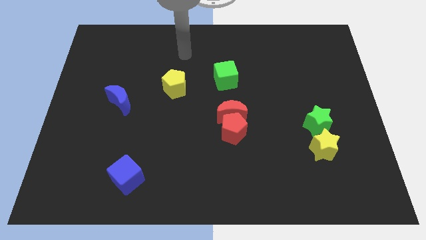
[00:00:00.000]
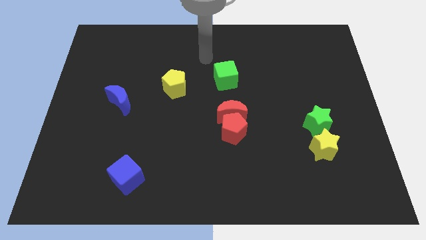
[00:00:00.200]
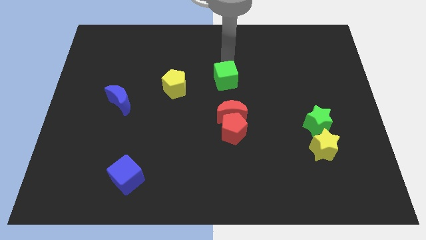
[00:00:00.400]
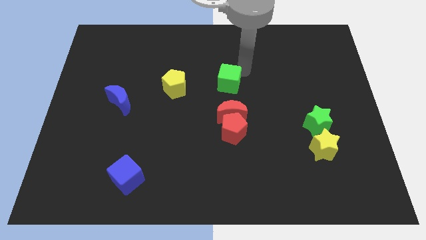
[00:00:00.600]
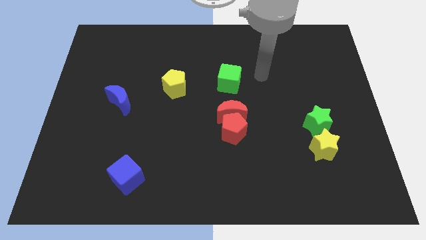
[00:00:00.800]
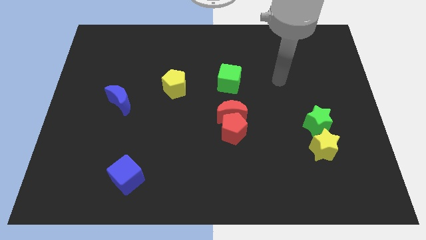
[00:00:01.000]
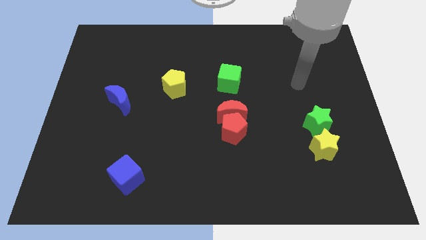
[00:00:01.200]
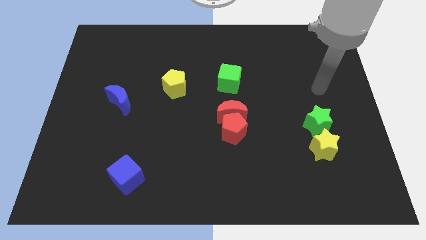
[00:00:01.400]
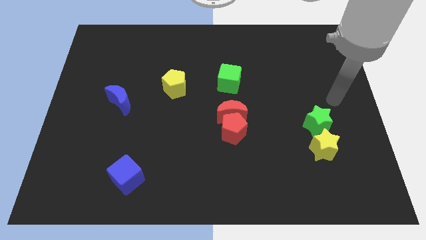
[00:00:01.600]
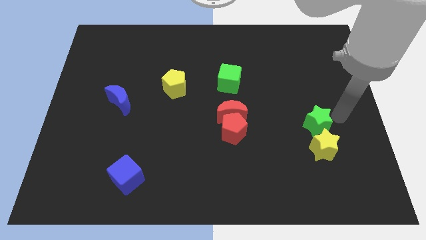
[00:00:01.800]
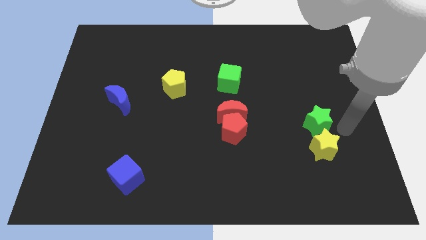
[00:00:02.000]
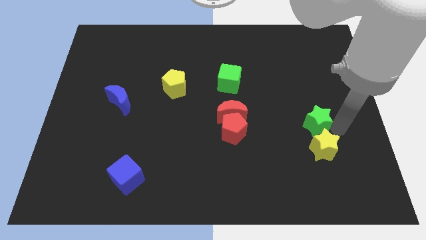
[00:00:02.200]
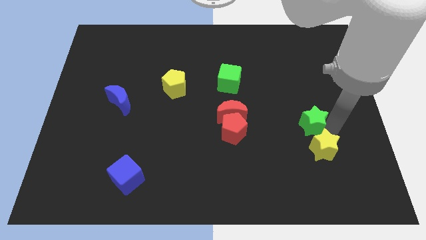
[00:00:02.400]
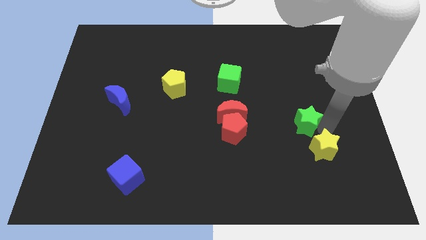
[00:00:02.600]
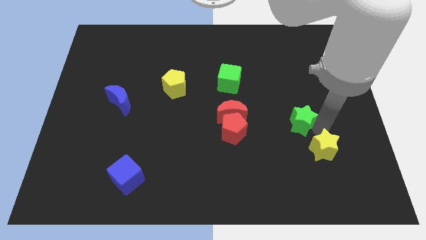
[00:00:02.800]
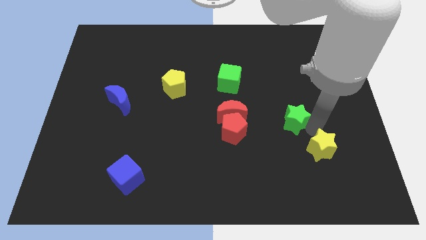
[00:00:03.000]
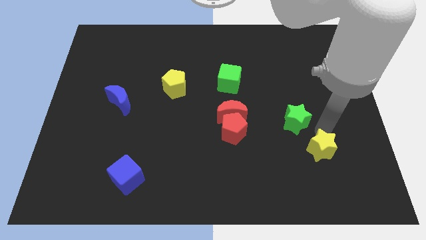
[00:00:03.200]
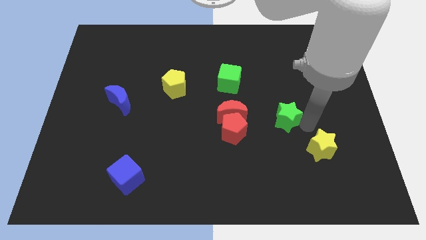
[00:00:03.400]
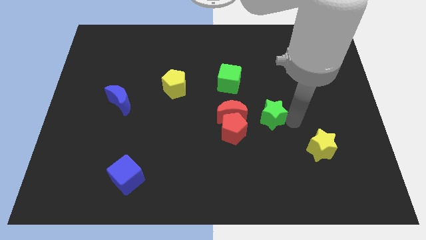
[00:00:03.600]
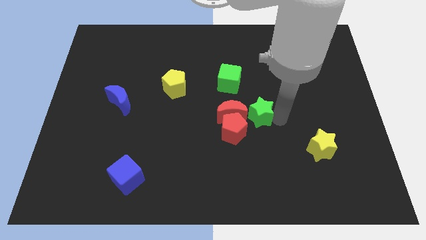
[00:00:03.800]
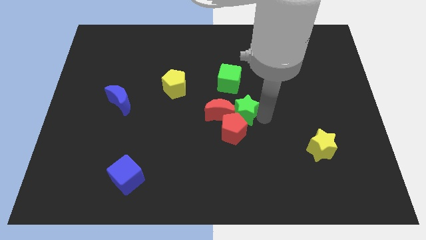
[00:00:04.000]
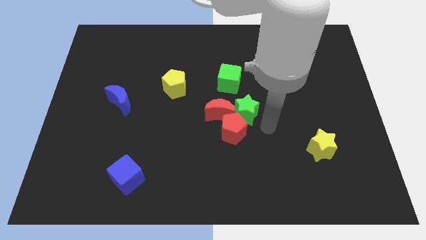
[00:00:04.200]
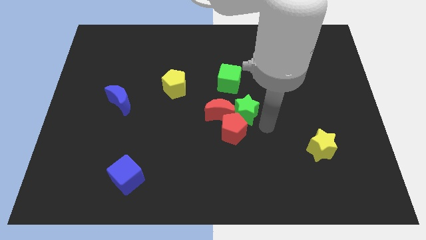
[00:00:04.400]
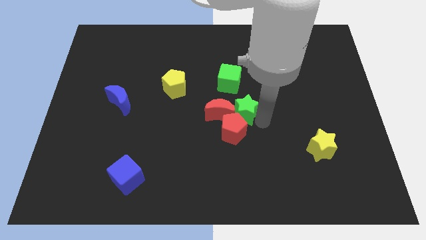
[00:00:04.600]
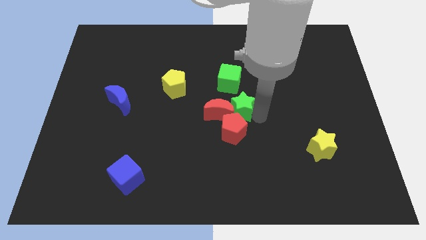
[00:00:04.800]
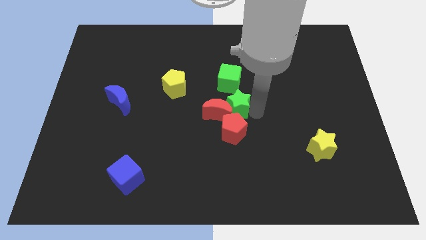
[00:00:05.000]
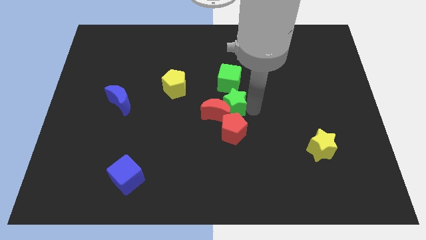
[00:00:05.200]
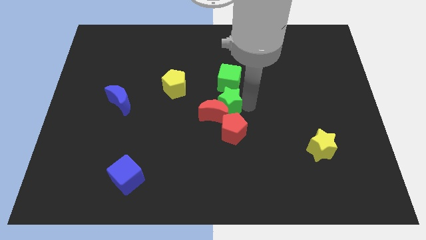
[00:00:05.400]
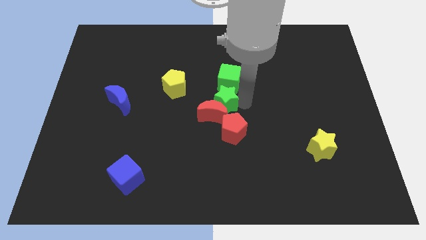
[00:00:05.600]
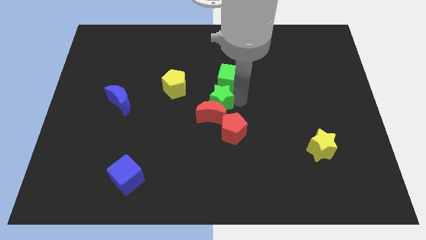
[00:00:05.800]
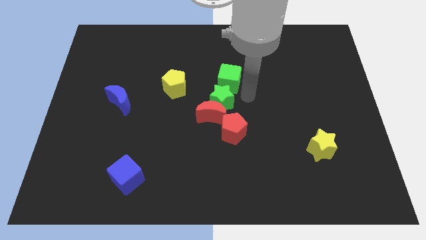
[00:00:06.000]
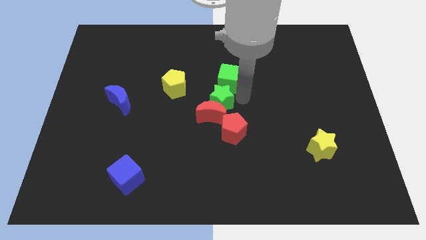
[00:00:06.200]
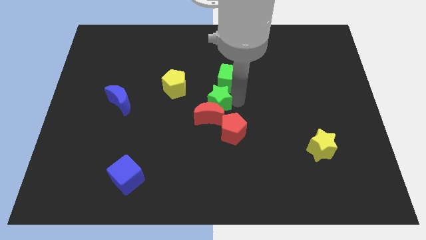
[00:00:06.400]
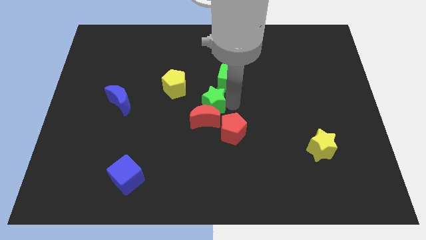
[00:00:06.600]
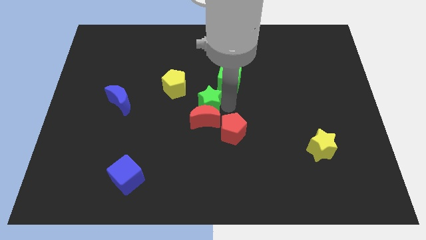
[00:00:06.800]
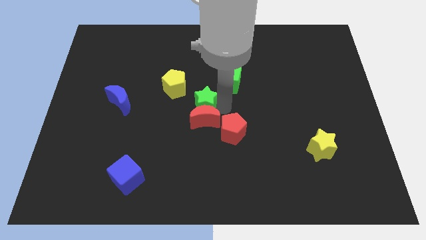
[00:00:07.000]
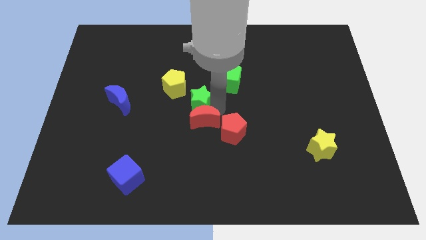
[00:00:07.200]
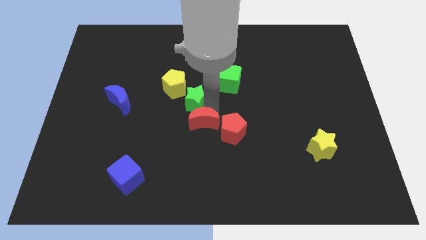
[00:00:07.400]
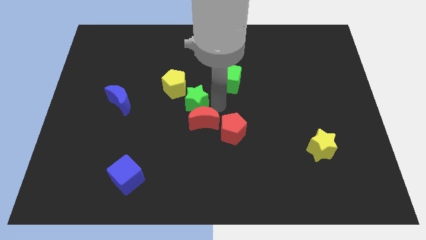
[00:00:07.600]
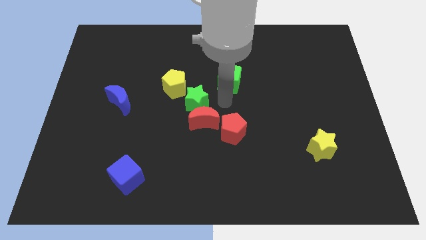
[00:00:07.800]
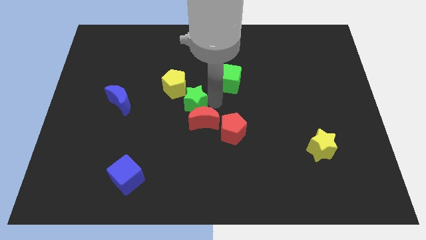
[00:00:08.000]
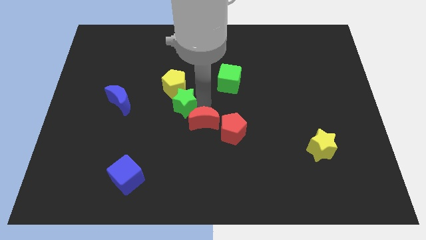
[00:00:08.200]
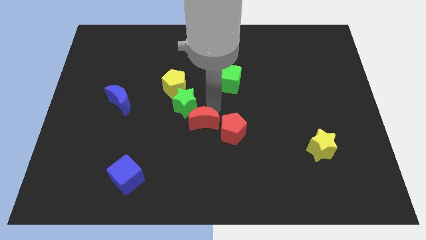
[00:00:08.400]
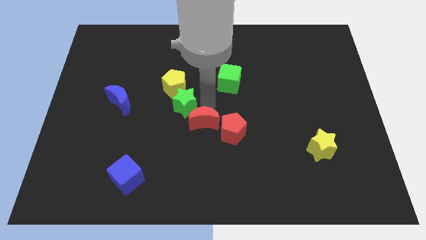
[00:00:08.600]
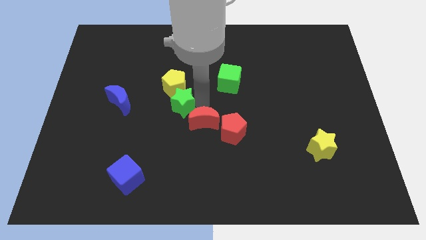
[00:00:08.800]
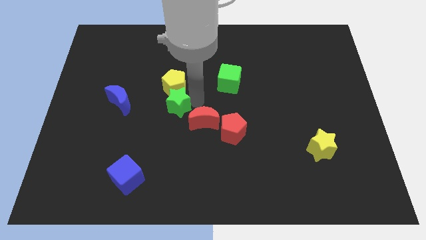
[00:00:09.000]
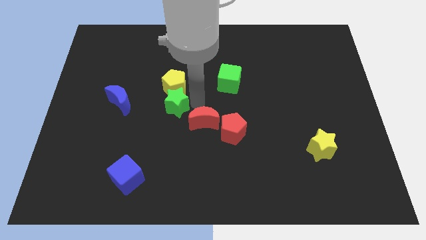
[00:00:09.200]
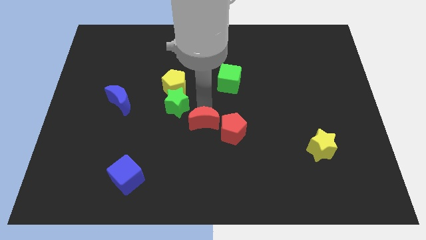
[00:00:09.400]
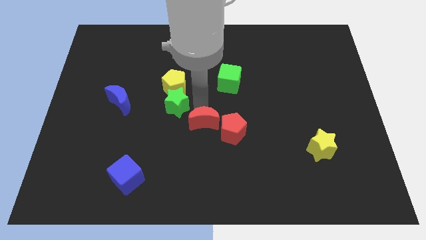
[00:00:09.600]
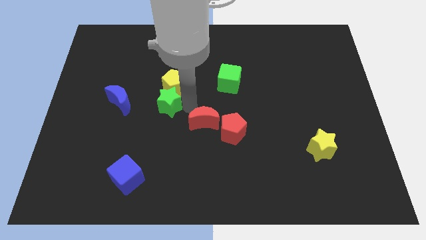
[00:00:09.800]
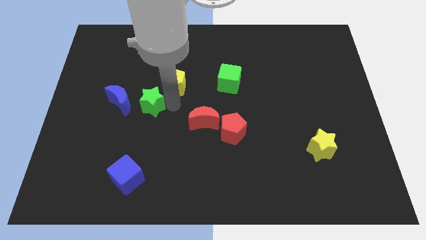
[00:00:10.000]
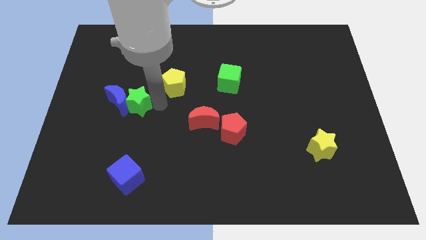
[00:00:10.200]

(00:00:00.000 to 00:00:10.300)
push the green star to the blue moon

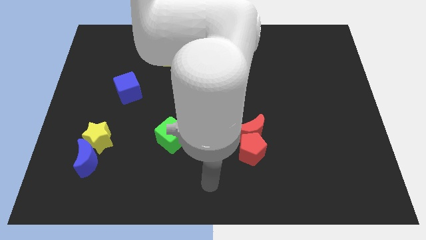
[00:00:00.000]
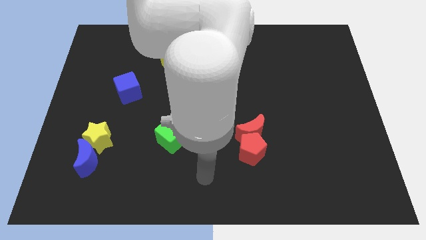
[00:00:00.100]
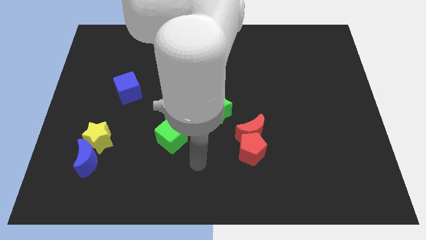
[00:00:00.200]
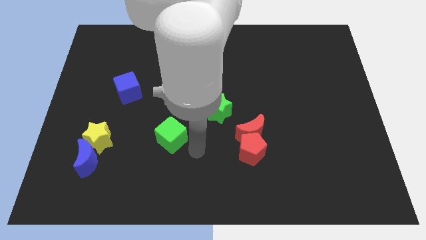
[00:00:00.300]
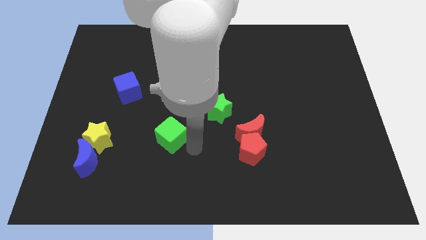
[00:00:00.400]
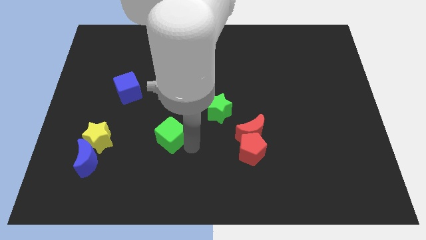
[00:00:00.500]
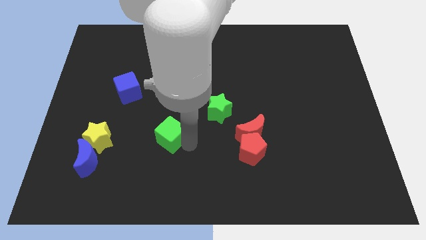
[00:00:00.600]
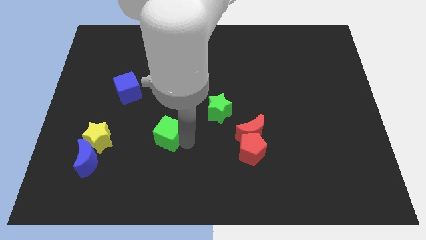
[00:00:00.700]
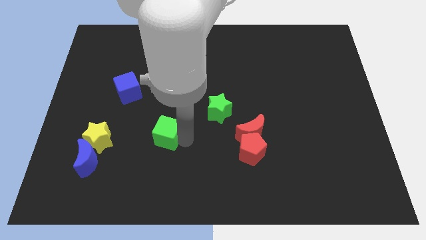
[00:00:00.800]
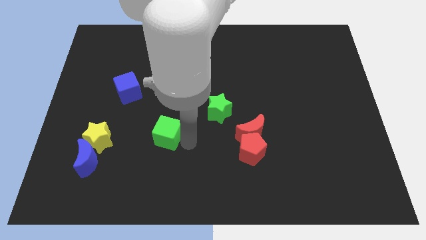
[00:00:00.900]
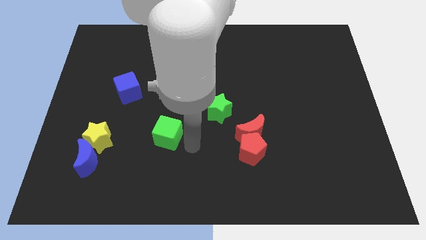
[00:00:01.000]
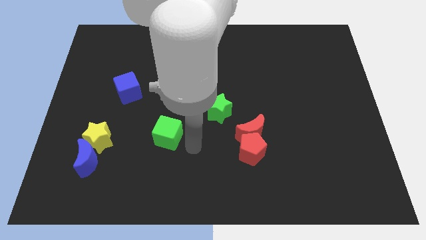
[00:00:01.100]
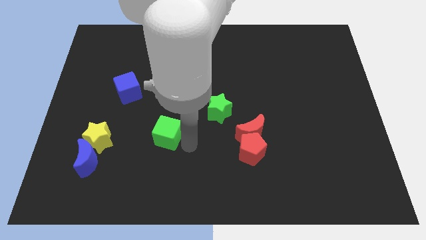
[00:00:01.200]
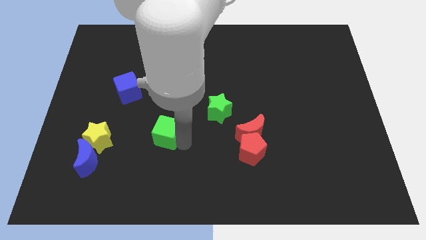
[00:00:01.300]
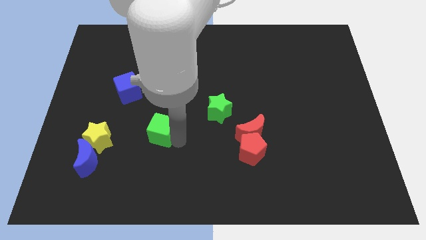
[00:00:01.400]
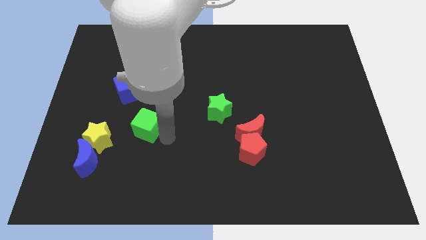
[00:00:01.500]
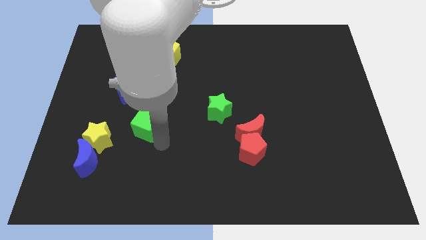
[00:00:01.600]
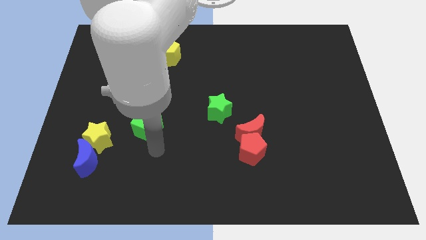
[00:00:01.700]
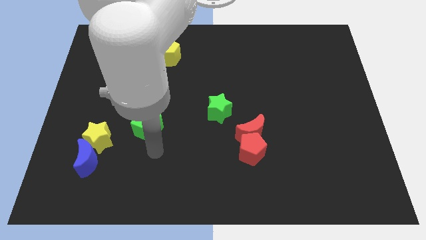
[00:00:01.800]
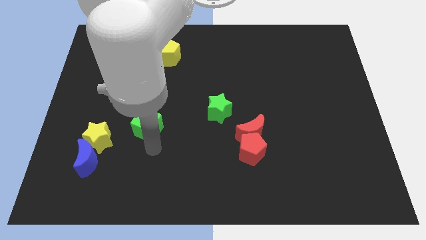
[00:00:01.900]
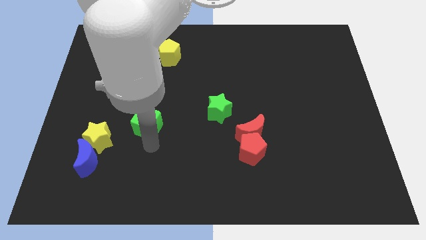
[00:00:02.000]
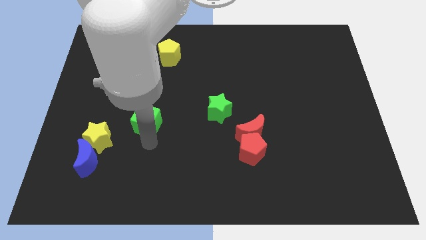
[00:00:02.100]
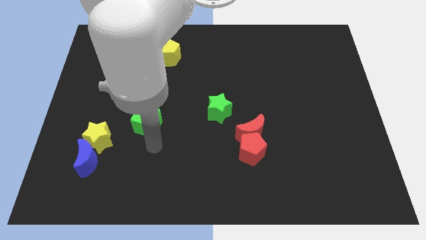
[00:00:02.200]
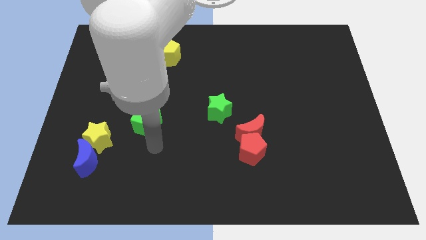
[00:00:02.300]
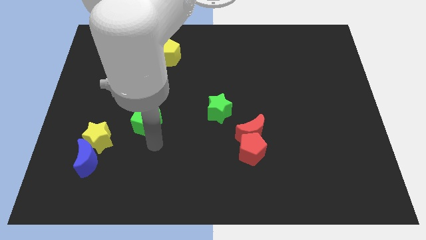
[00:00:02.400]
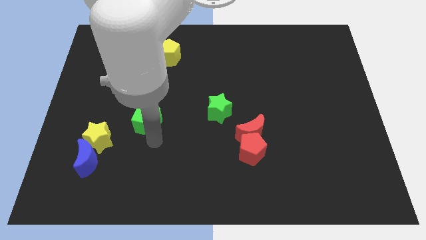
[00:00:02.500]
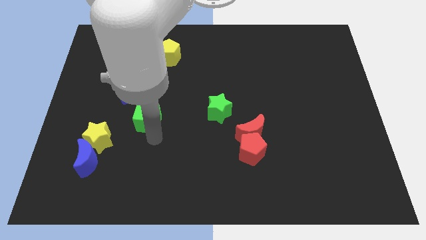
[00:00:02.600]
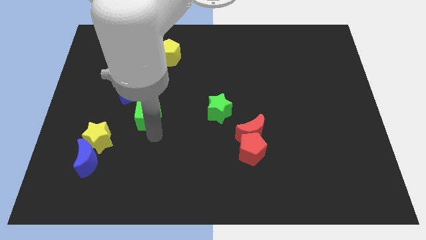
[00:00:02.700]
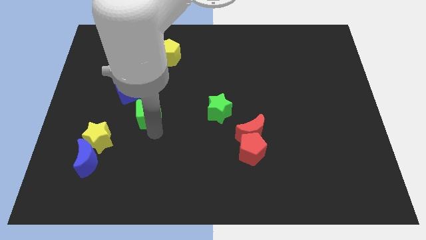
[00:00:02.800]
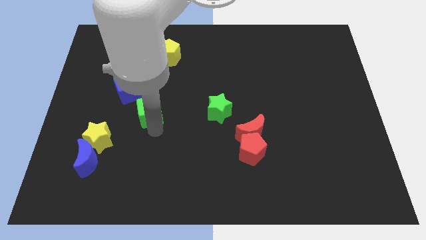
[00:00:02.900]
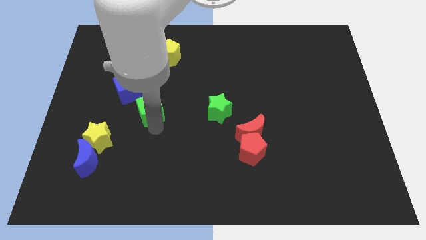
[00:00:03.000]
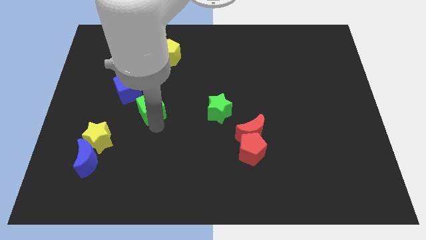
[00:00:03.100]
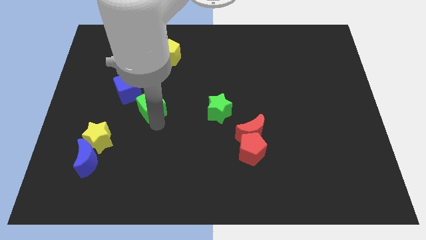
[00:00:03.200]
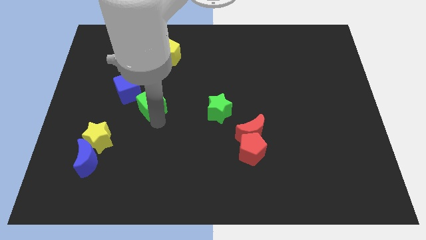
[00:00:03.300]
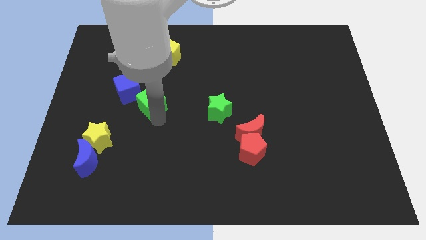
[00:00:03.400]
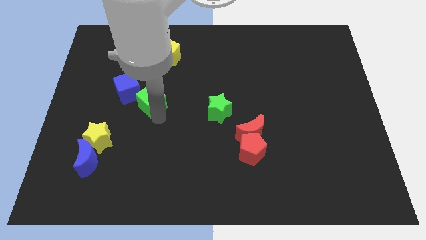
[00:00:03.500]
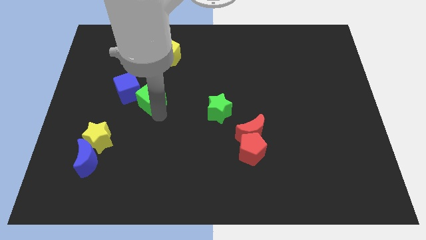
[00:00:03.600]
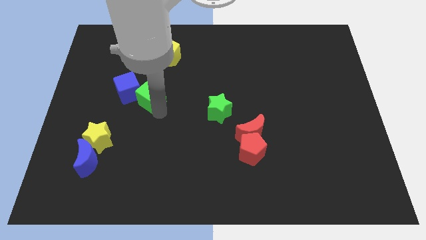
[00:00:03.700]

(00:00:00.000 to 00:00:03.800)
push the green cube next to the blue cube
